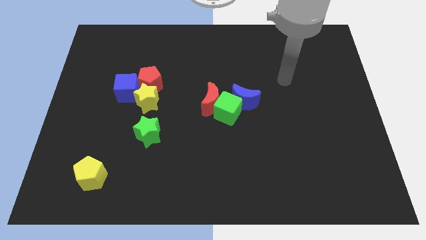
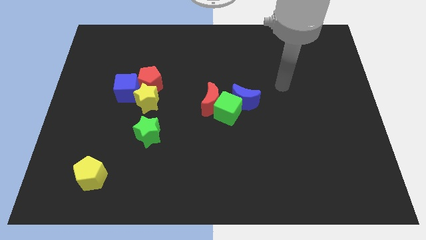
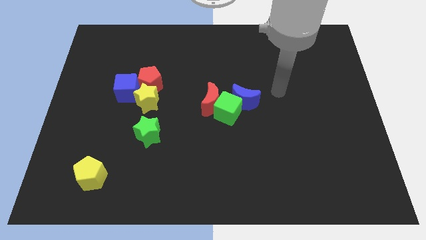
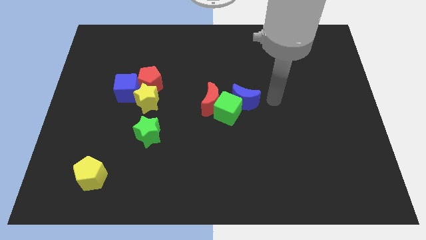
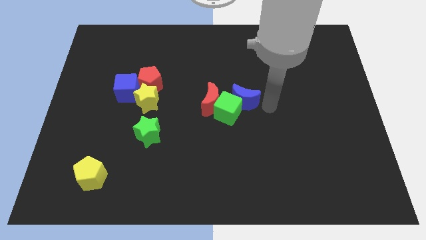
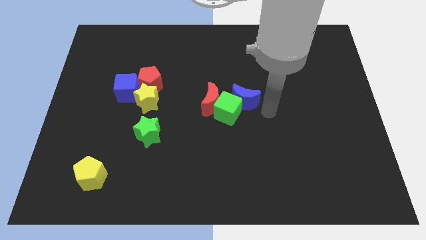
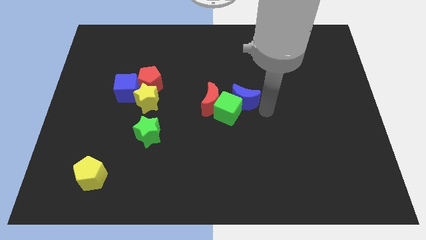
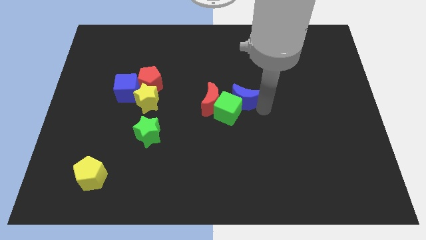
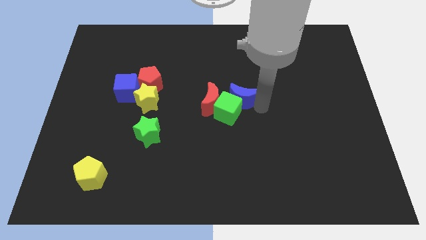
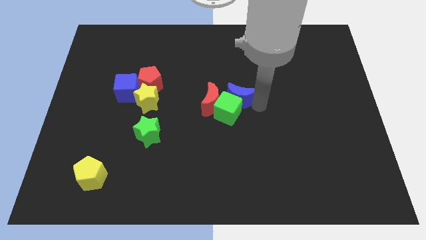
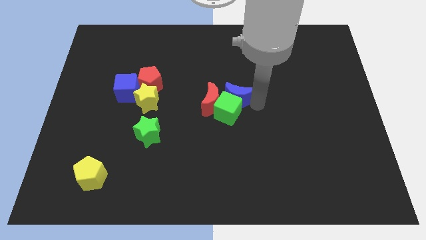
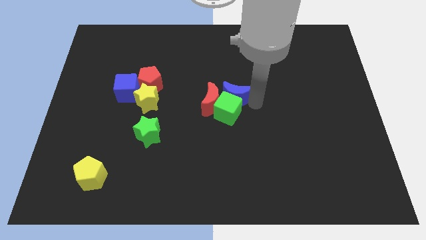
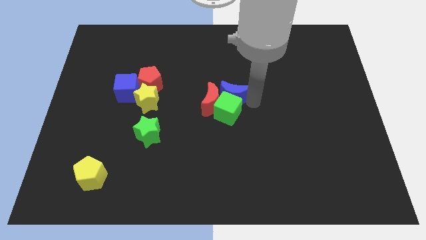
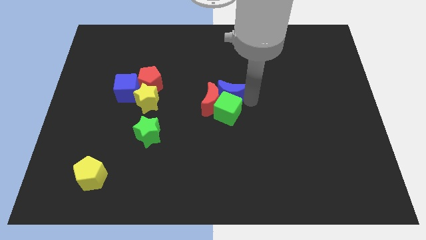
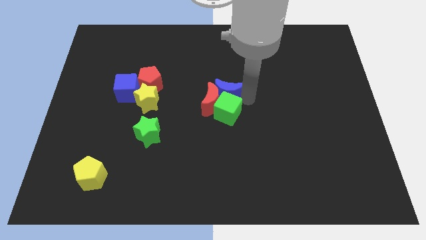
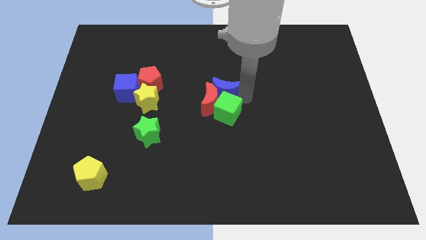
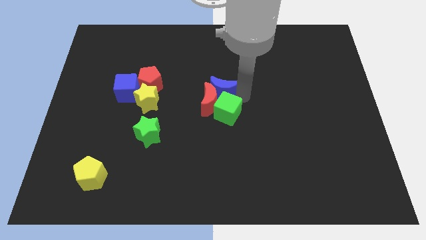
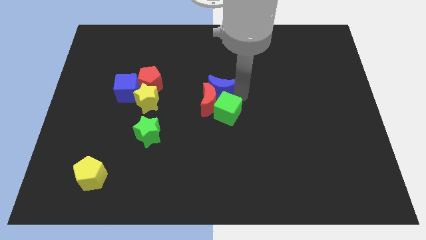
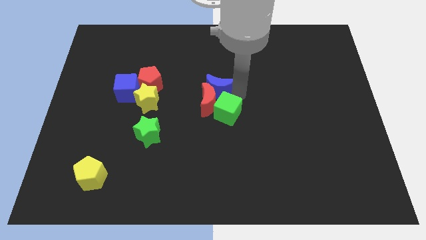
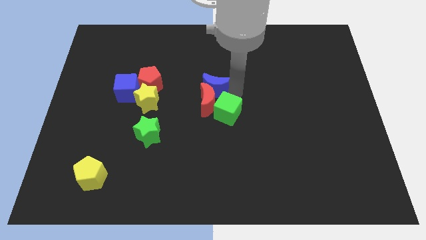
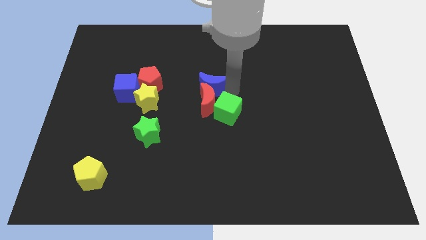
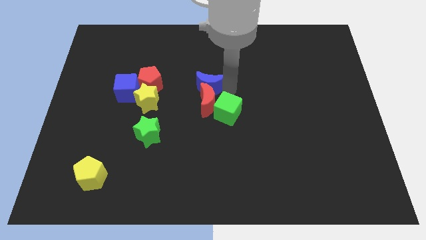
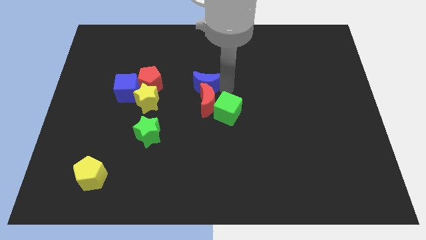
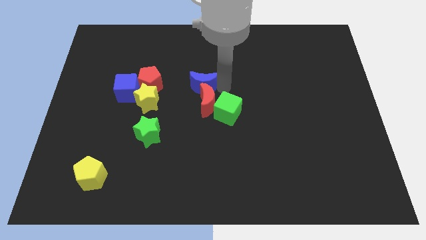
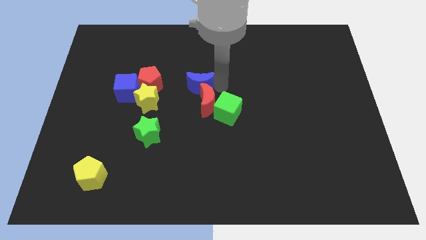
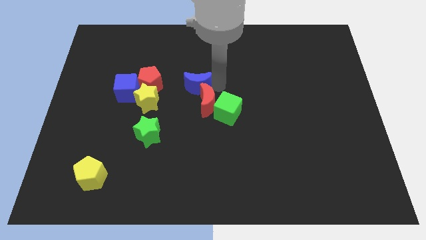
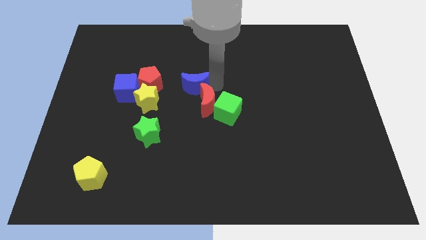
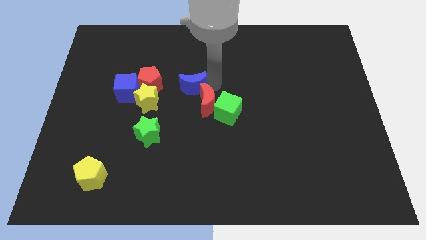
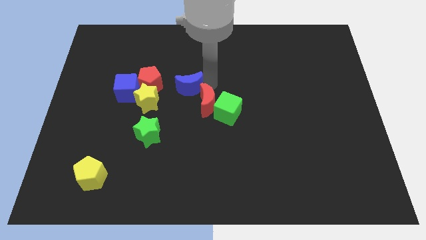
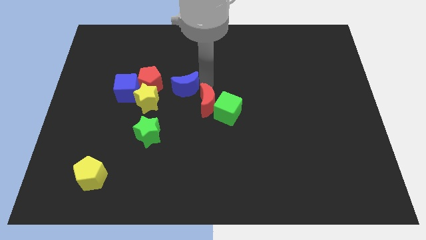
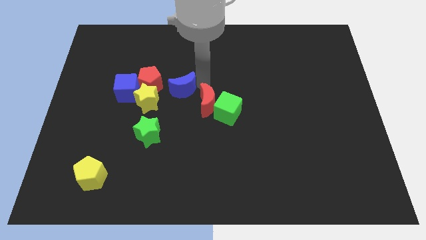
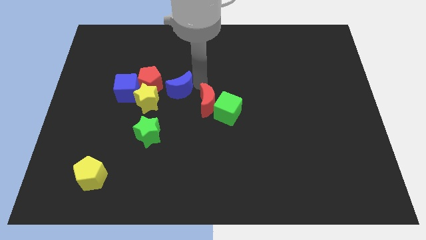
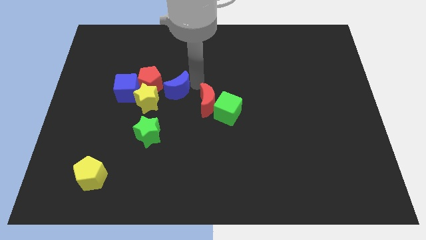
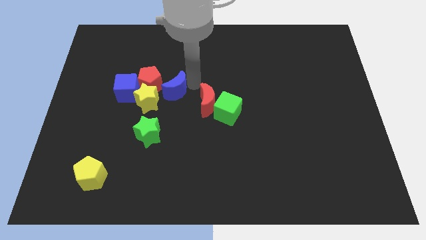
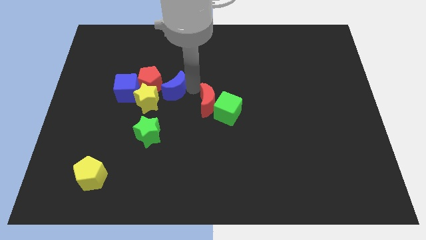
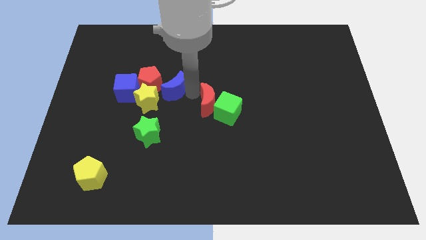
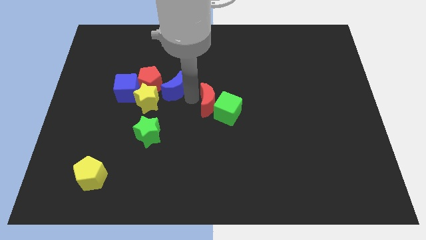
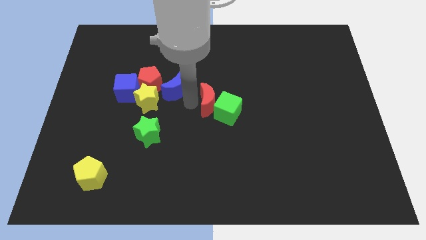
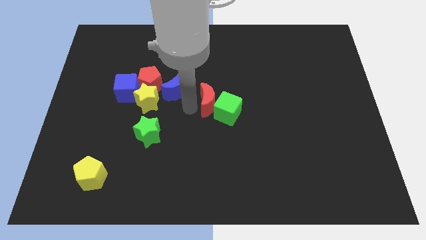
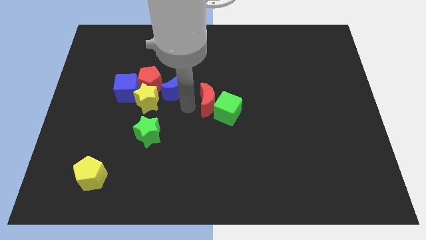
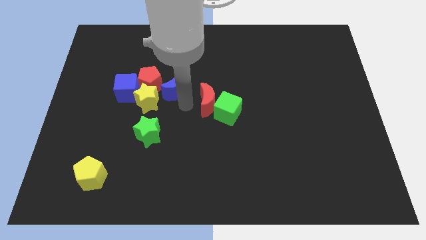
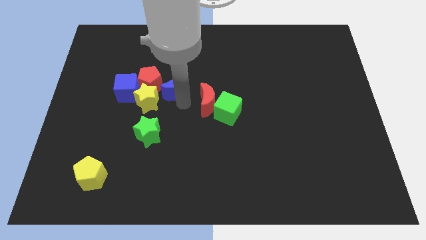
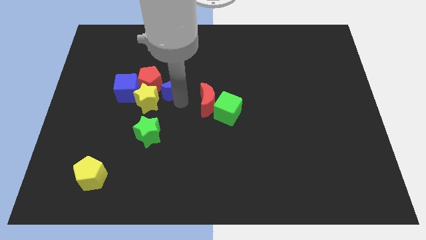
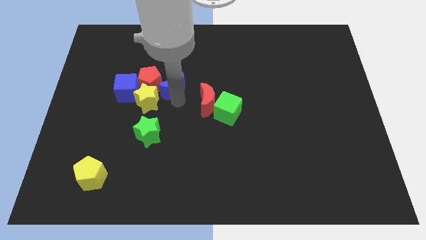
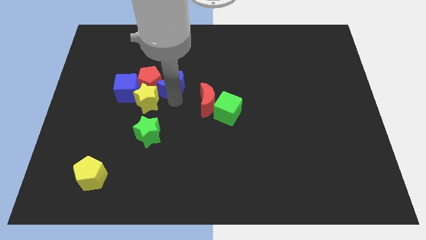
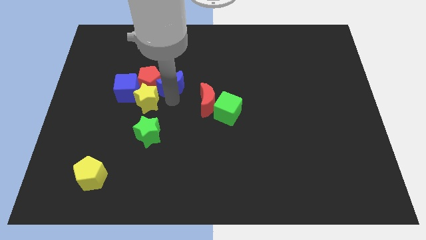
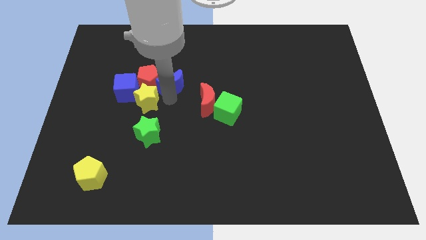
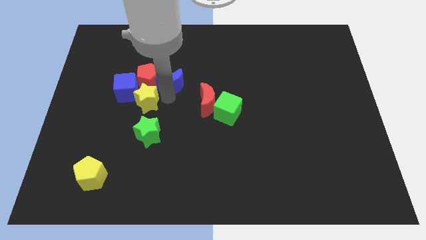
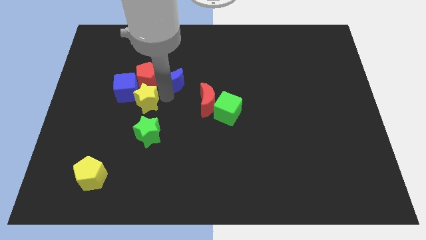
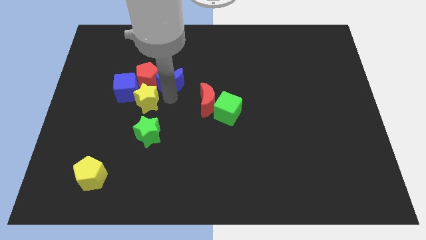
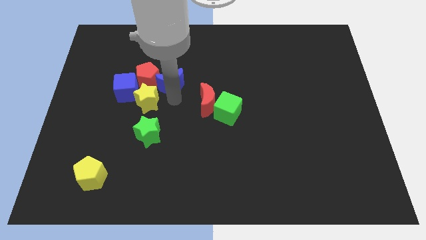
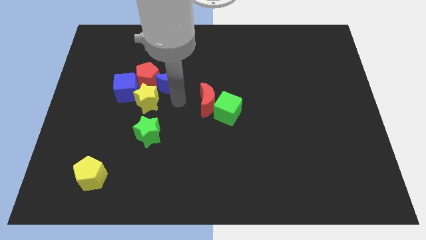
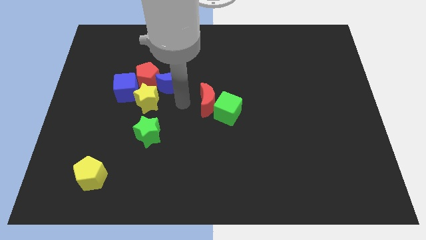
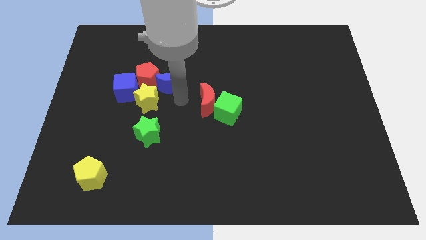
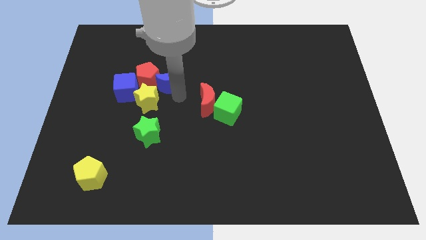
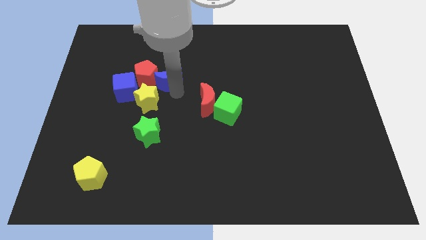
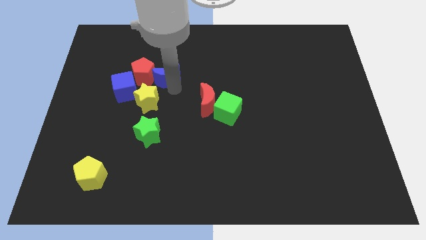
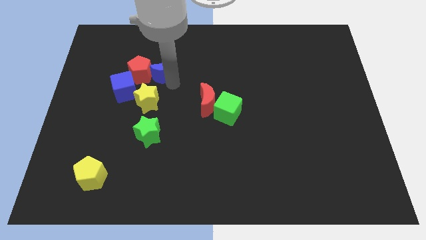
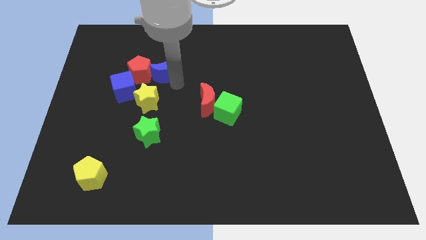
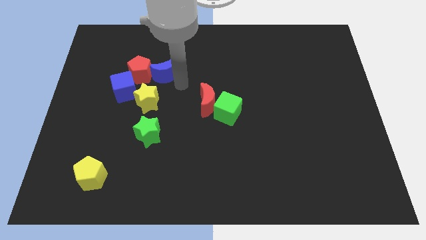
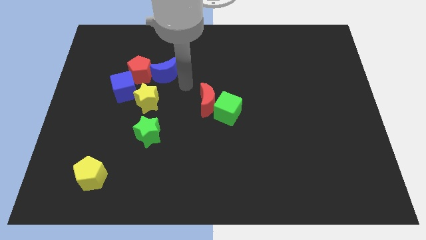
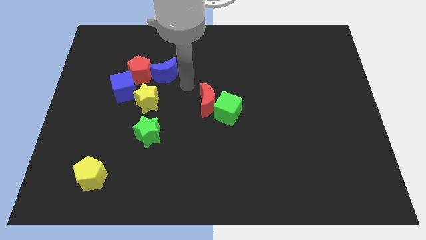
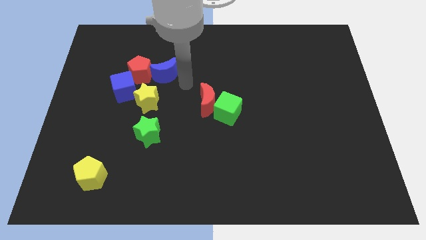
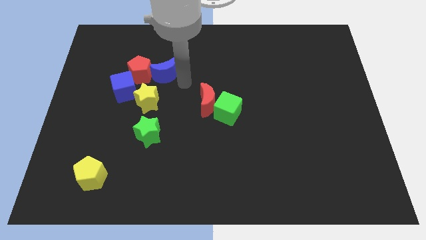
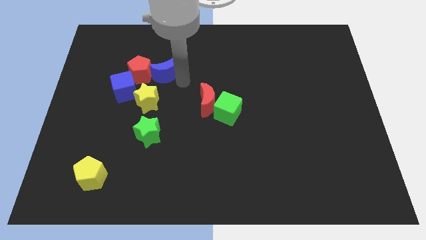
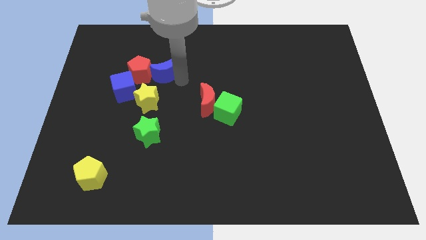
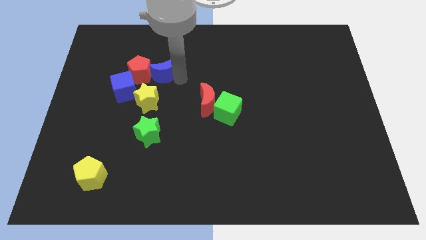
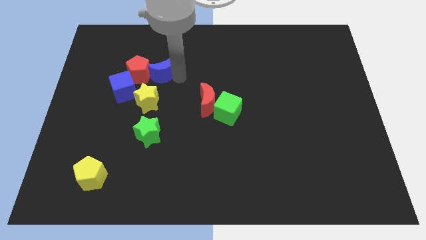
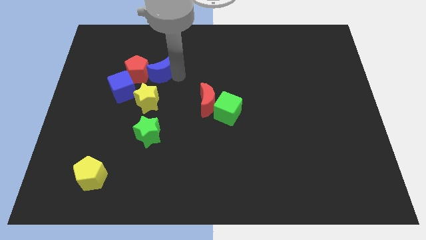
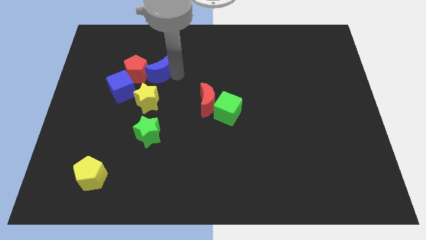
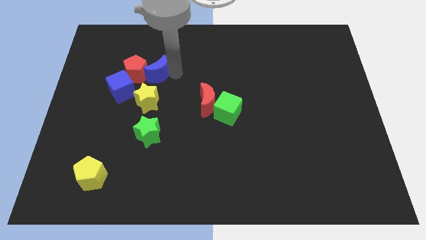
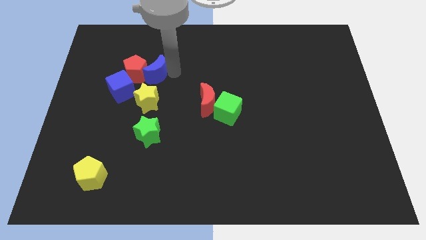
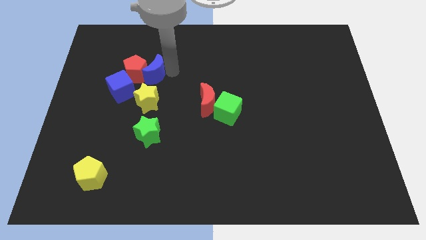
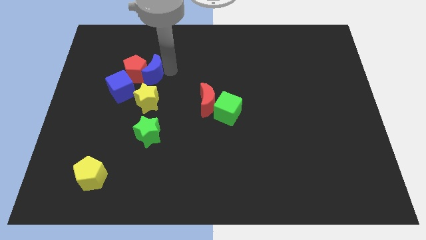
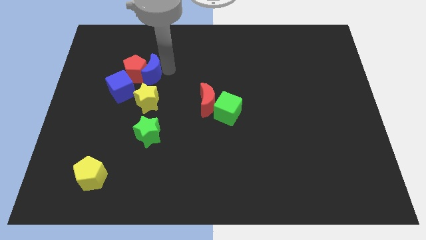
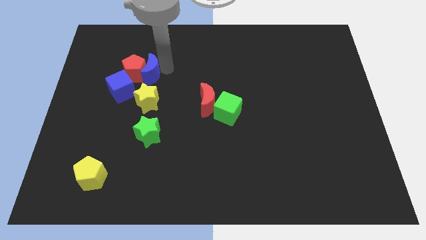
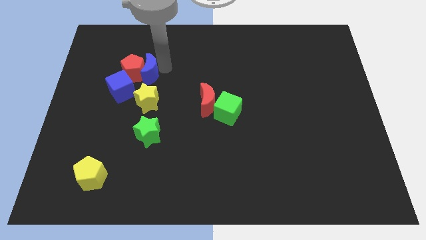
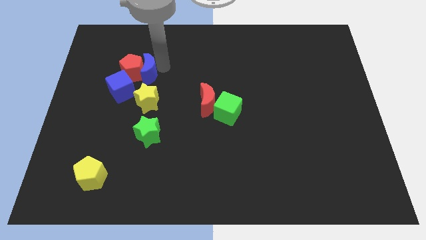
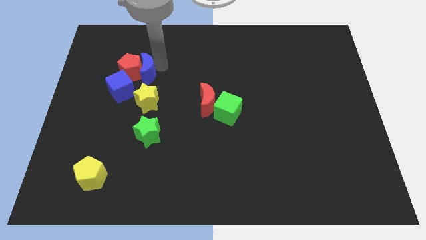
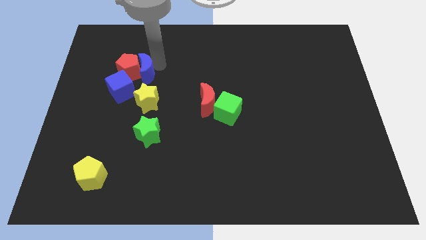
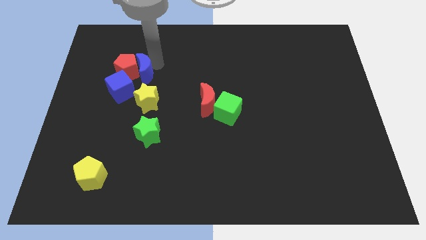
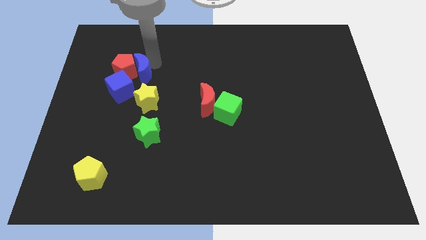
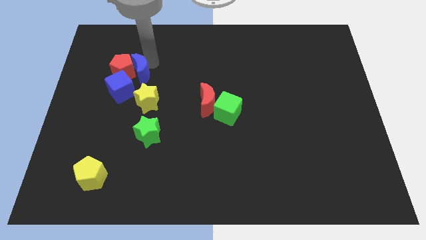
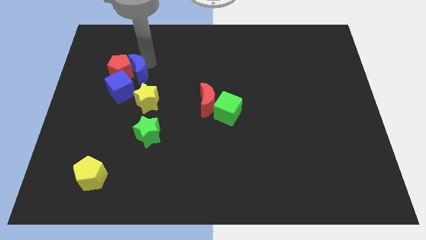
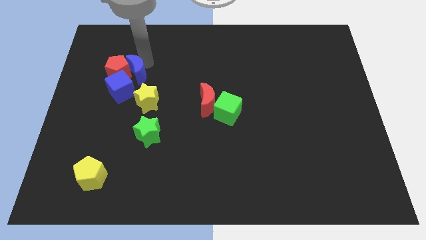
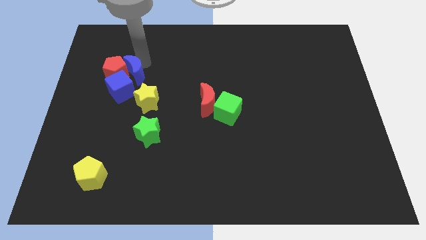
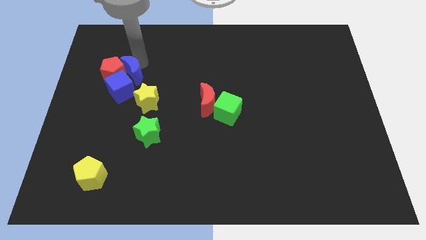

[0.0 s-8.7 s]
slide the blue moon close to the blue cube
